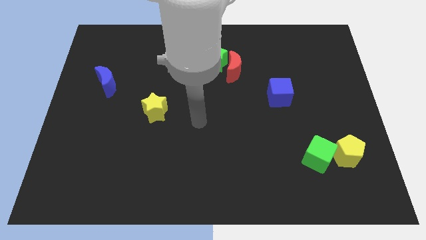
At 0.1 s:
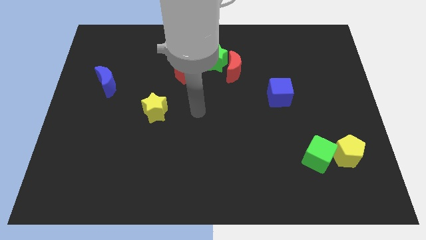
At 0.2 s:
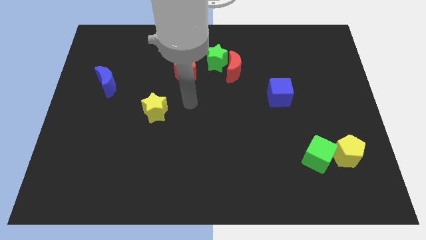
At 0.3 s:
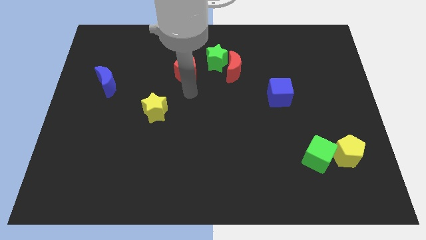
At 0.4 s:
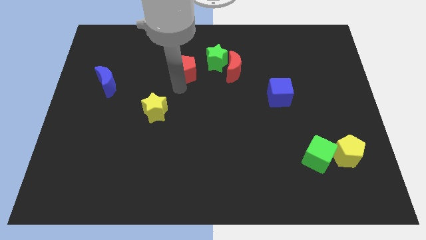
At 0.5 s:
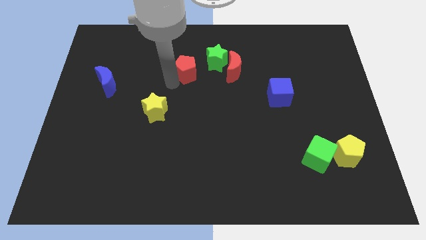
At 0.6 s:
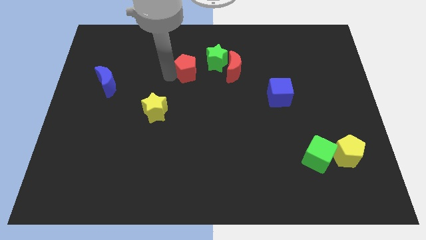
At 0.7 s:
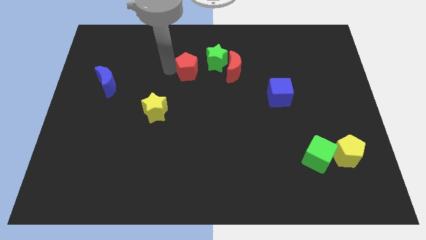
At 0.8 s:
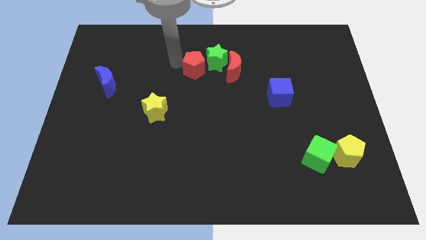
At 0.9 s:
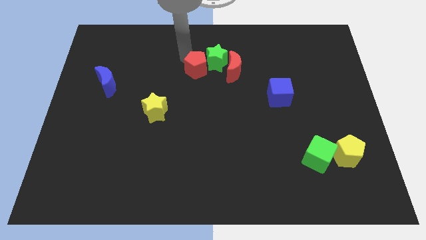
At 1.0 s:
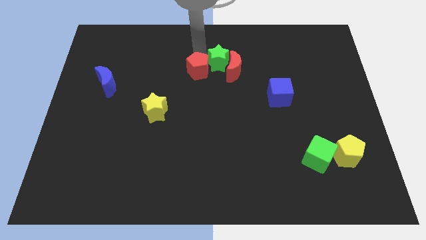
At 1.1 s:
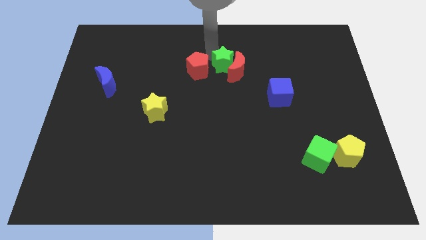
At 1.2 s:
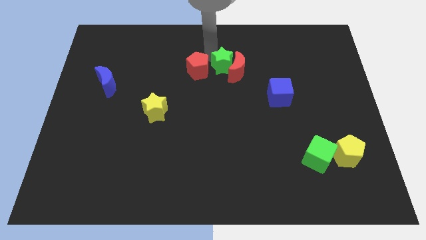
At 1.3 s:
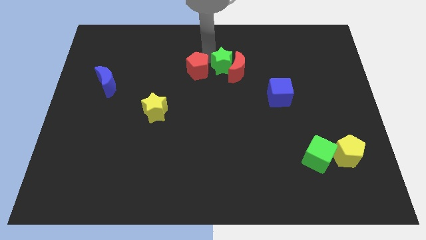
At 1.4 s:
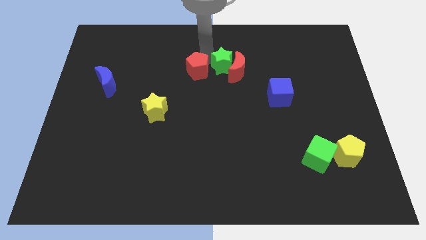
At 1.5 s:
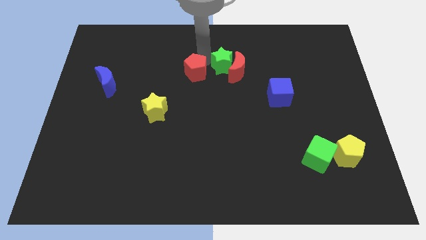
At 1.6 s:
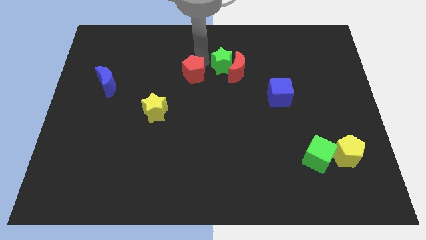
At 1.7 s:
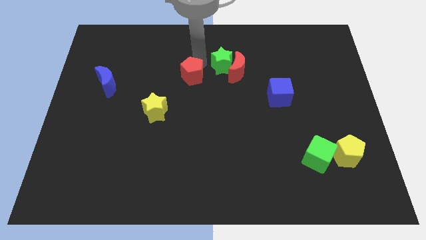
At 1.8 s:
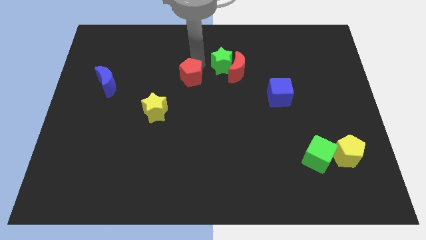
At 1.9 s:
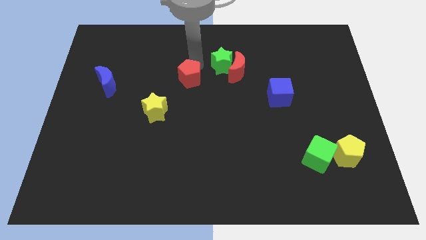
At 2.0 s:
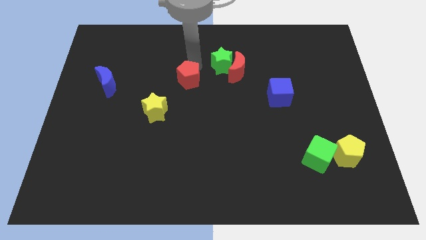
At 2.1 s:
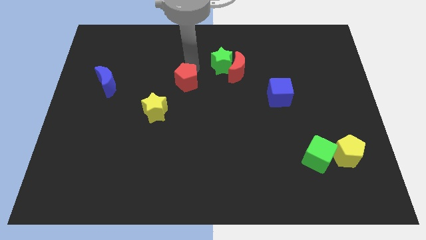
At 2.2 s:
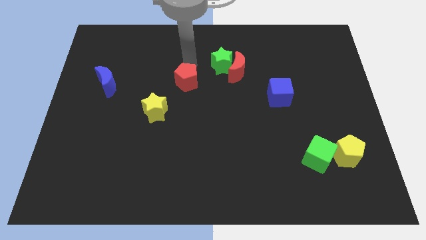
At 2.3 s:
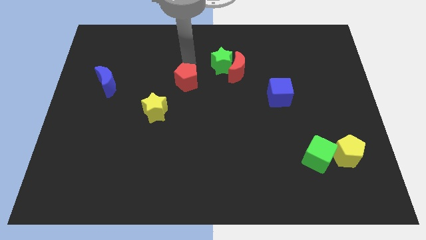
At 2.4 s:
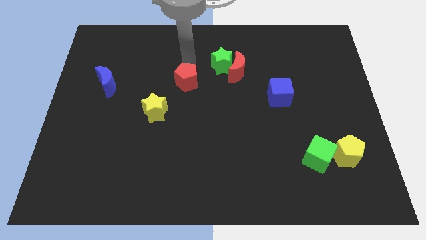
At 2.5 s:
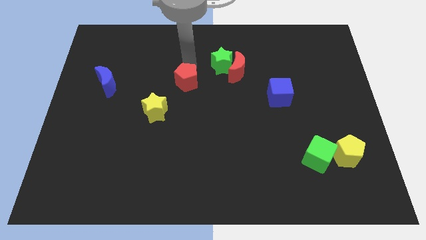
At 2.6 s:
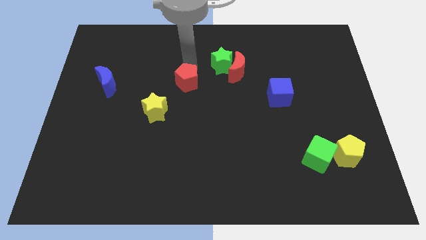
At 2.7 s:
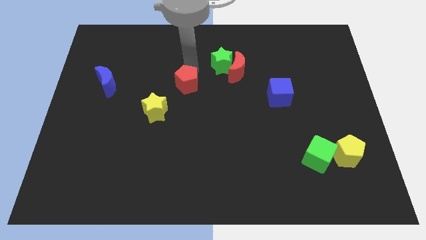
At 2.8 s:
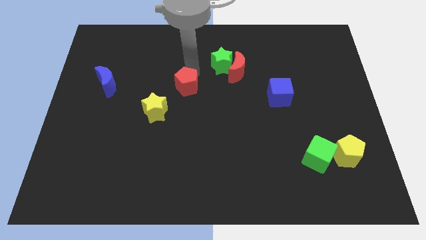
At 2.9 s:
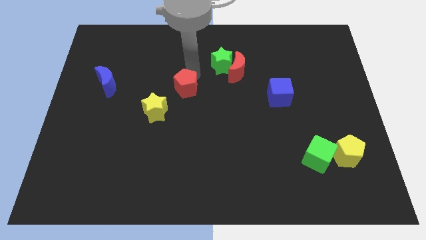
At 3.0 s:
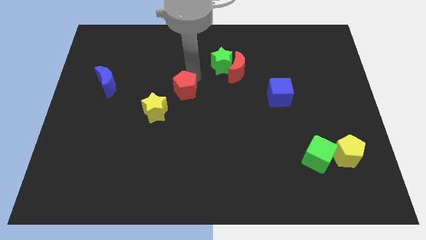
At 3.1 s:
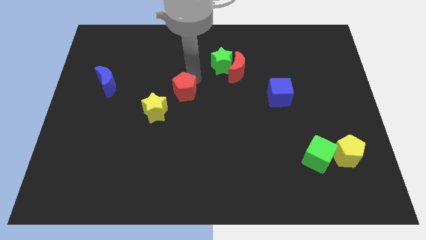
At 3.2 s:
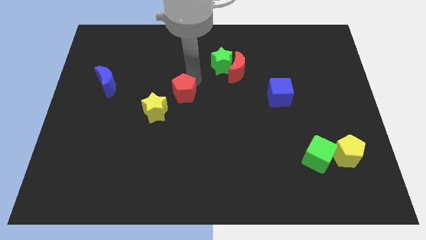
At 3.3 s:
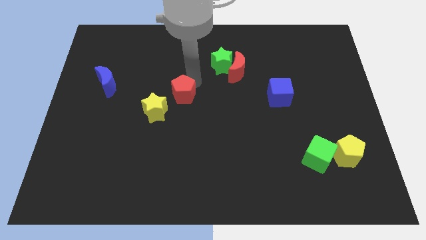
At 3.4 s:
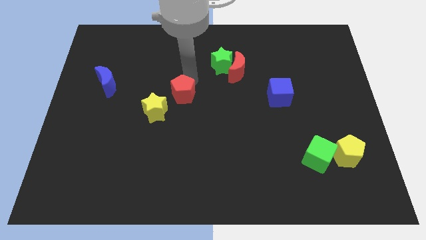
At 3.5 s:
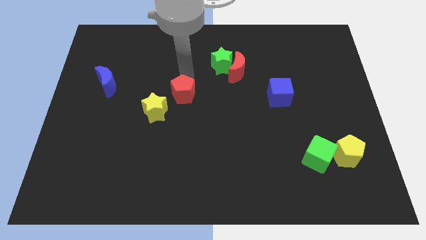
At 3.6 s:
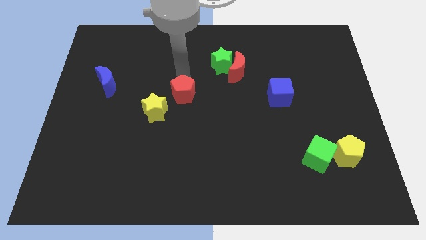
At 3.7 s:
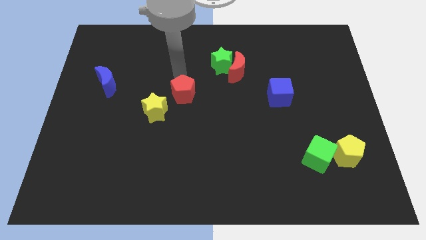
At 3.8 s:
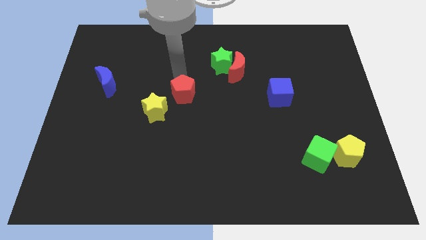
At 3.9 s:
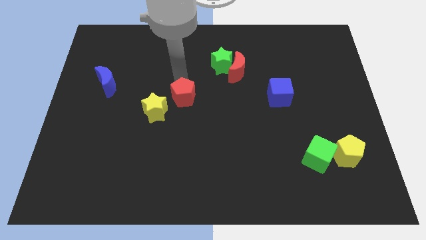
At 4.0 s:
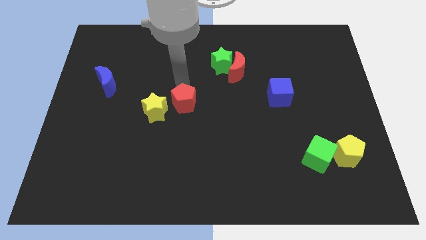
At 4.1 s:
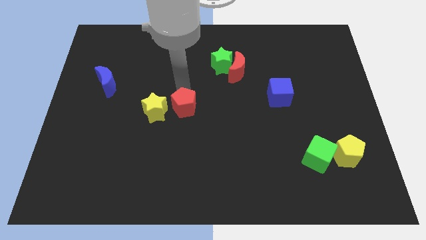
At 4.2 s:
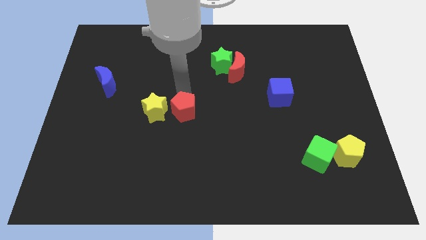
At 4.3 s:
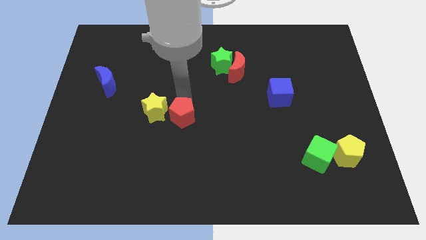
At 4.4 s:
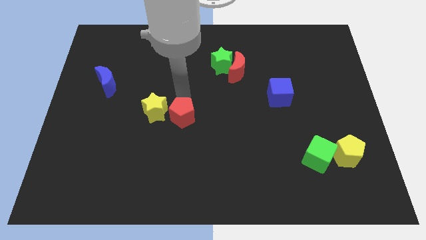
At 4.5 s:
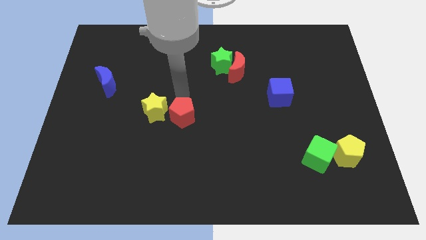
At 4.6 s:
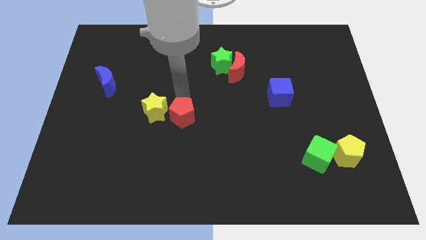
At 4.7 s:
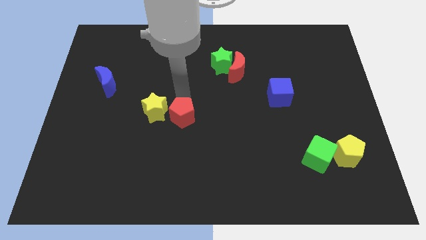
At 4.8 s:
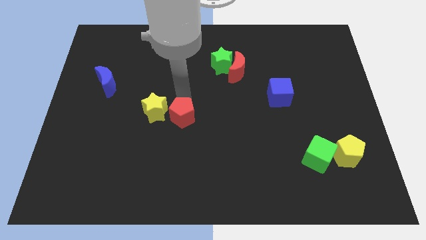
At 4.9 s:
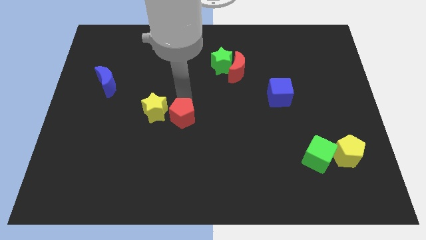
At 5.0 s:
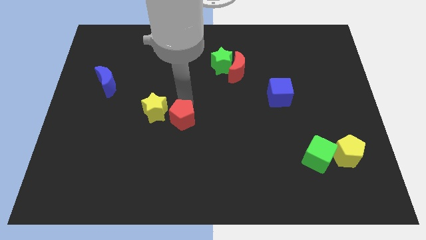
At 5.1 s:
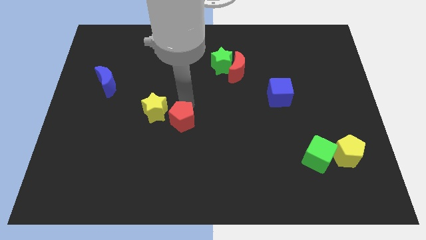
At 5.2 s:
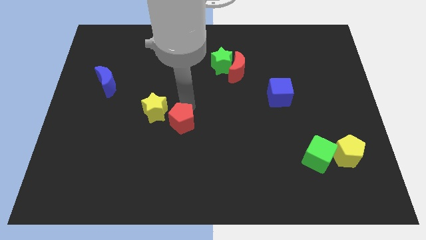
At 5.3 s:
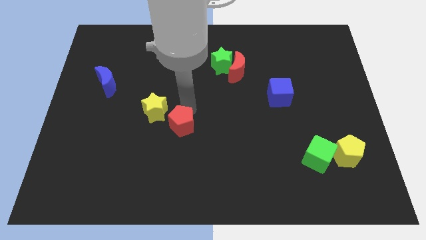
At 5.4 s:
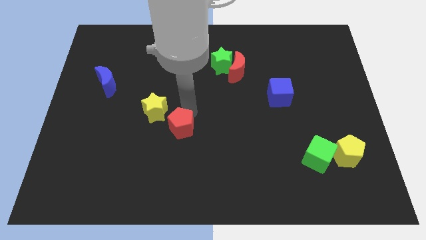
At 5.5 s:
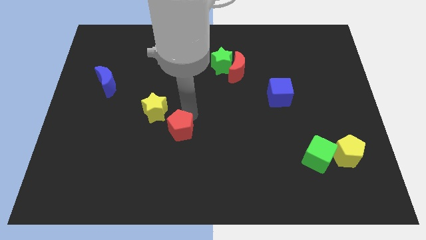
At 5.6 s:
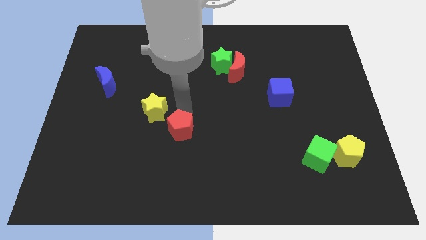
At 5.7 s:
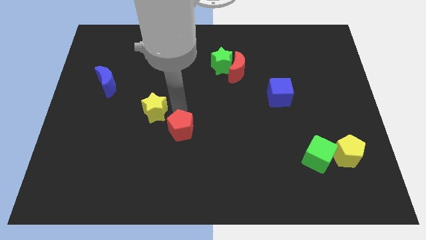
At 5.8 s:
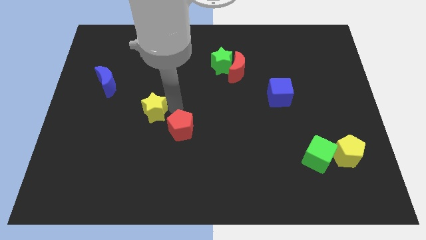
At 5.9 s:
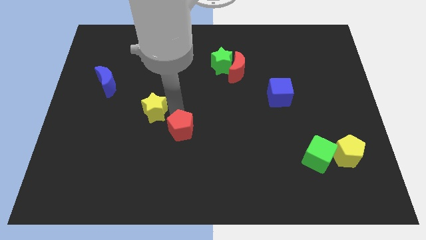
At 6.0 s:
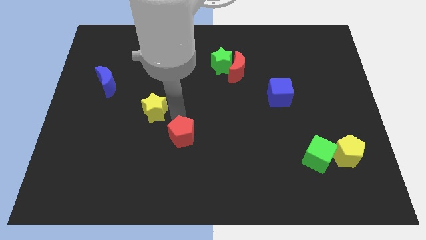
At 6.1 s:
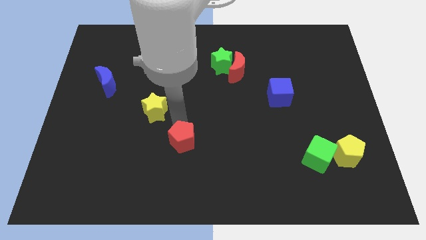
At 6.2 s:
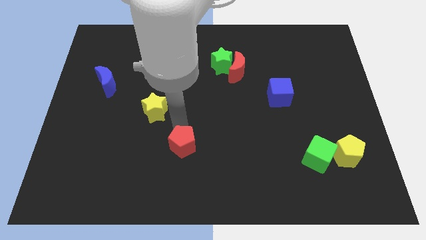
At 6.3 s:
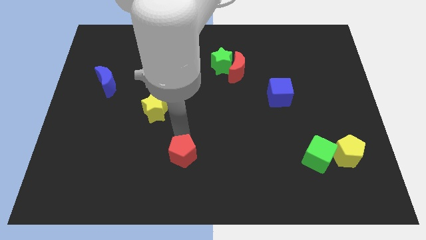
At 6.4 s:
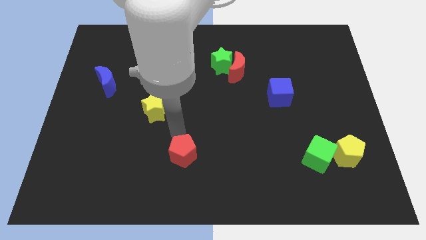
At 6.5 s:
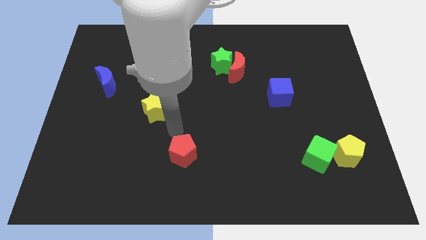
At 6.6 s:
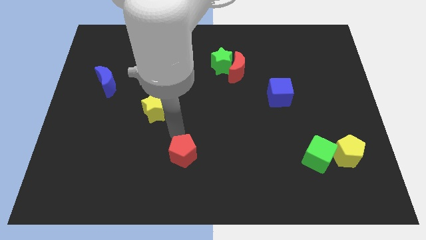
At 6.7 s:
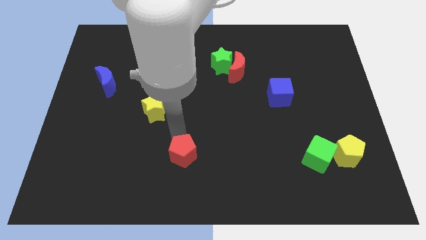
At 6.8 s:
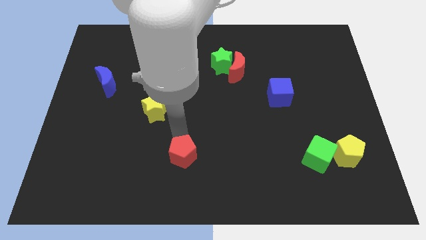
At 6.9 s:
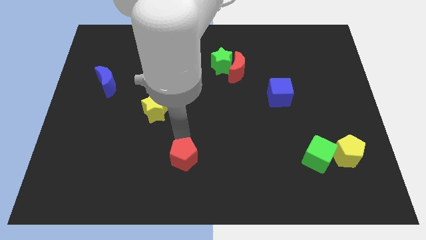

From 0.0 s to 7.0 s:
move the red pentagon to the bottom
